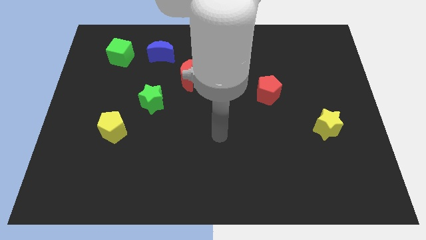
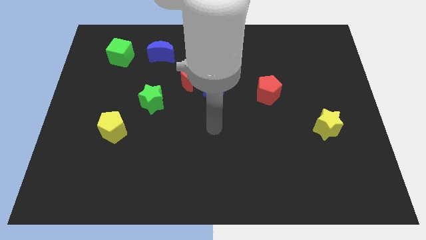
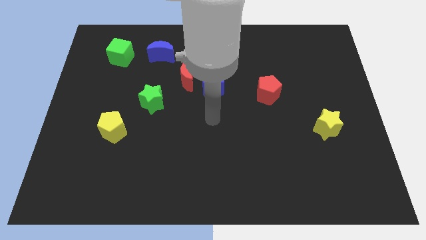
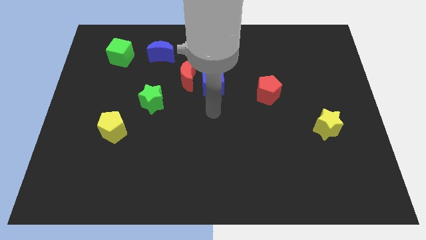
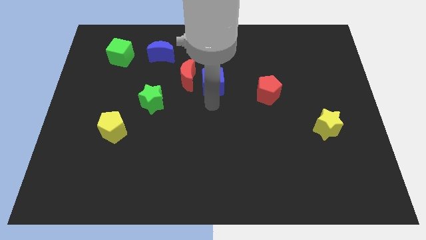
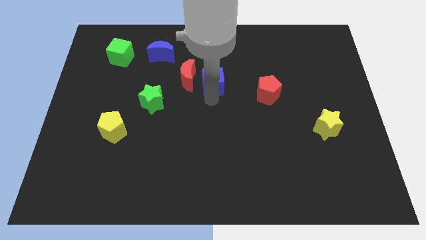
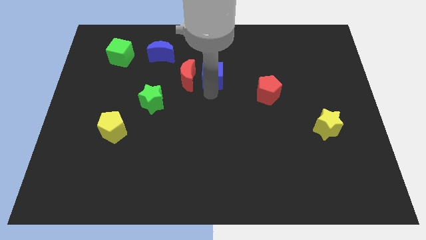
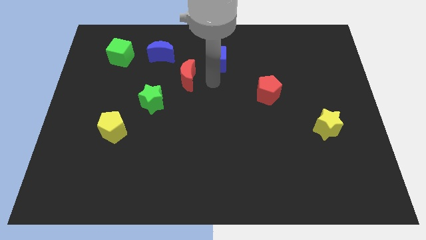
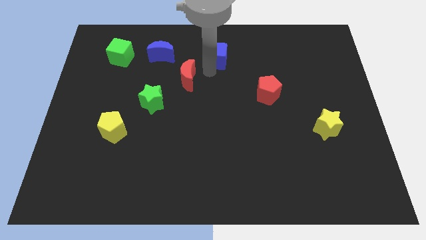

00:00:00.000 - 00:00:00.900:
move the red moon away from the blue cube

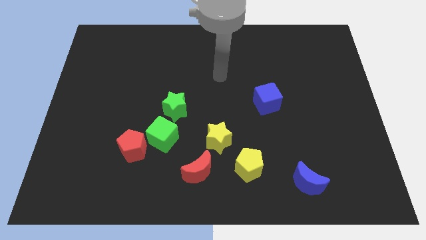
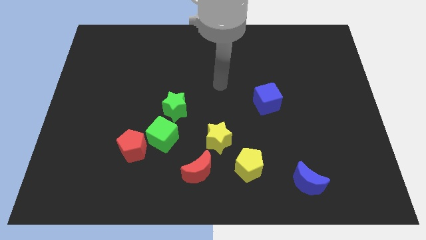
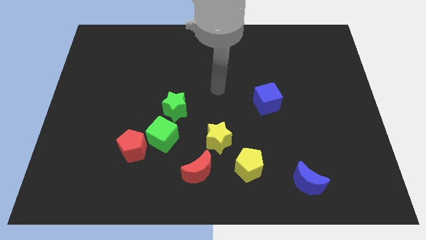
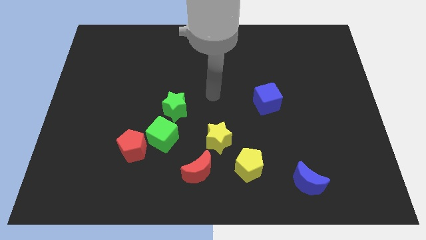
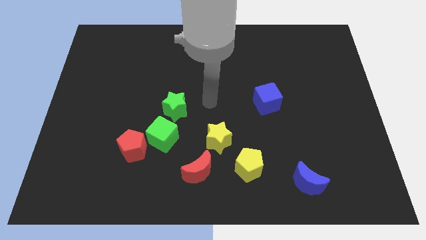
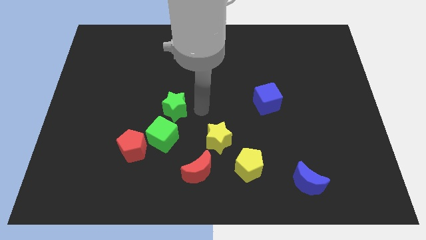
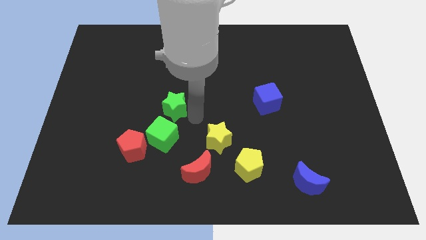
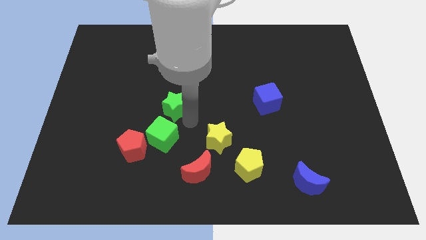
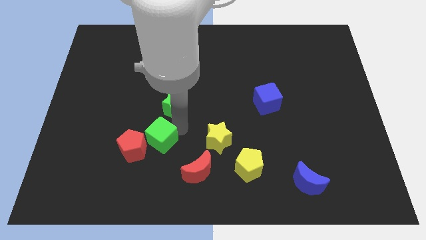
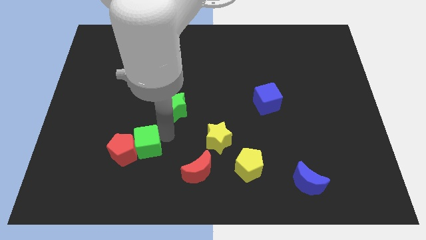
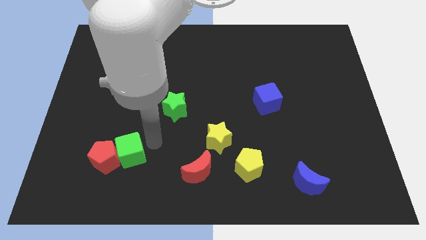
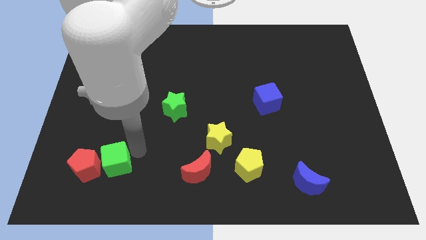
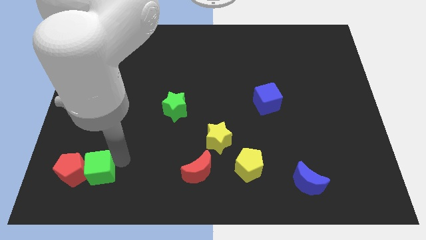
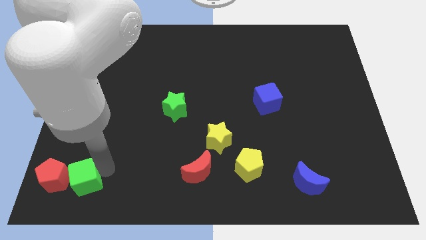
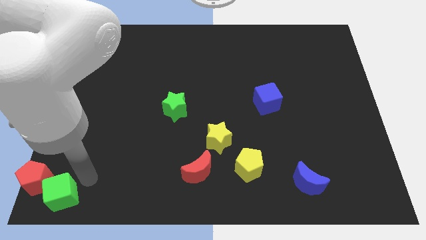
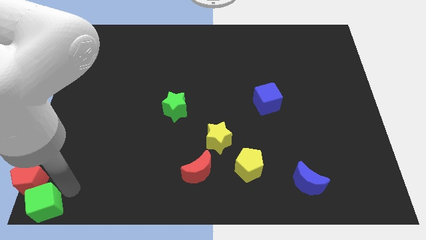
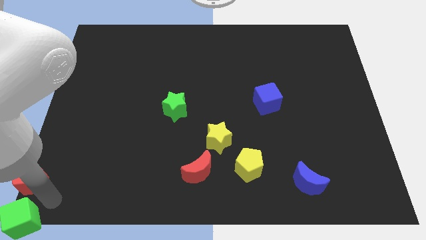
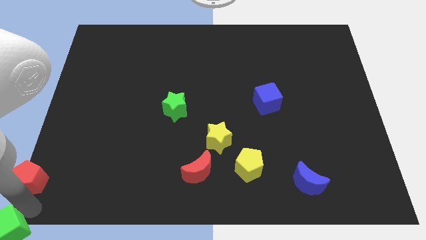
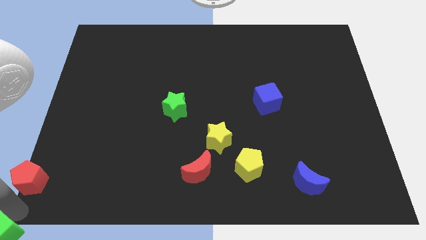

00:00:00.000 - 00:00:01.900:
separate the red pentagon from the green cube

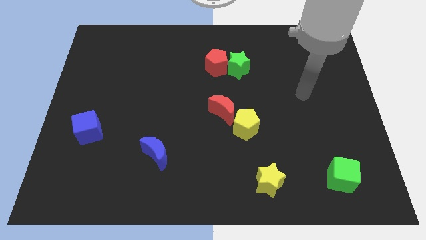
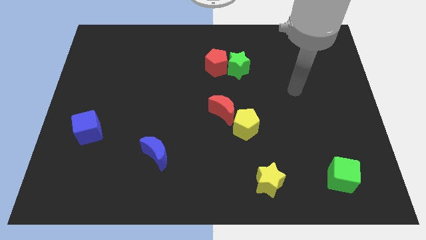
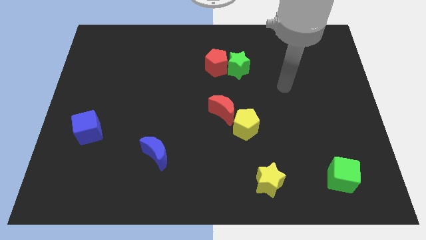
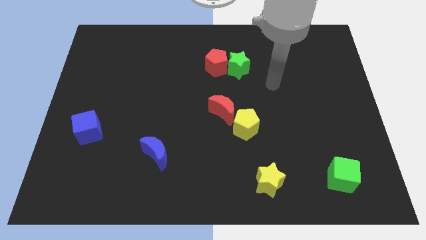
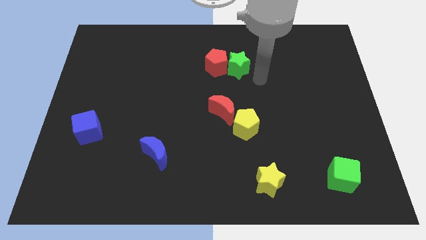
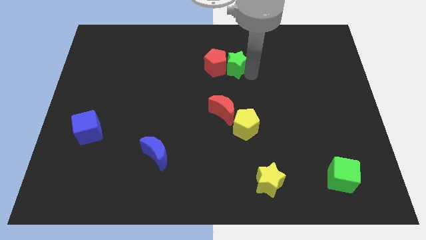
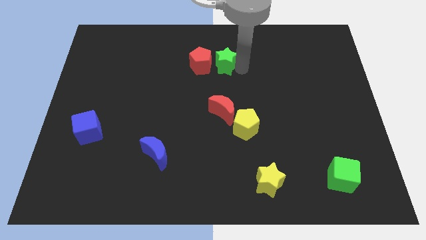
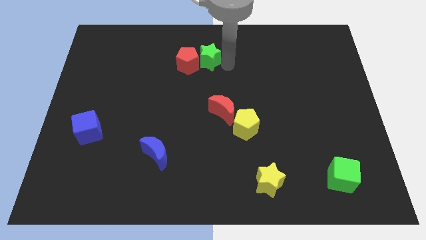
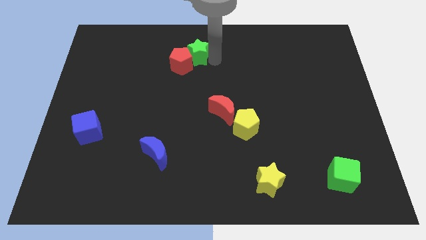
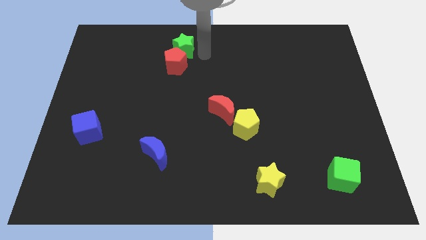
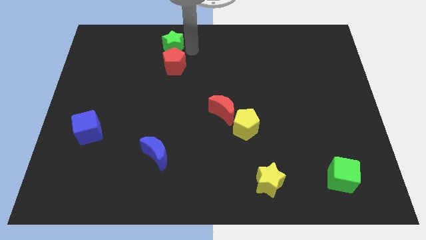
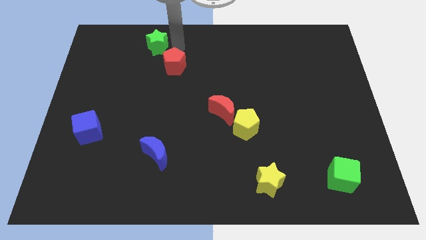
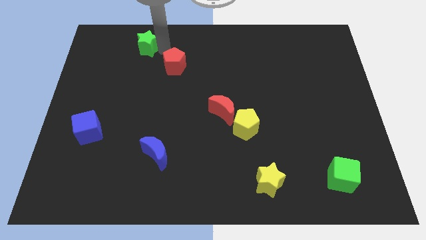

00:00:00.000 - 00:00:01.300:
separate the red pentagon from the green star

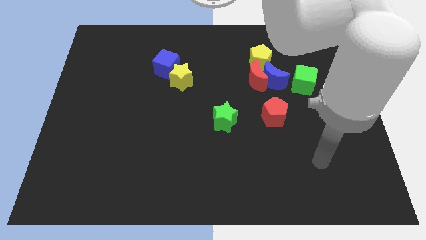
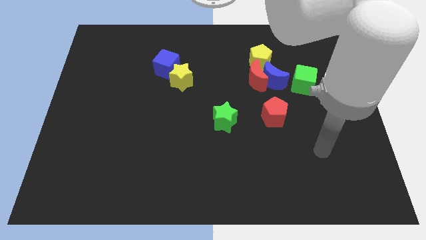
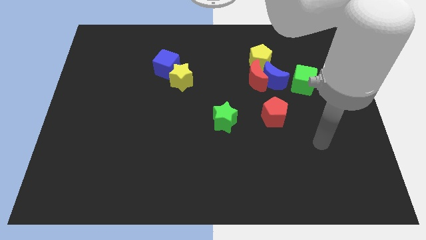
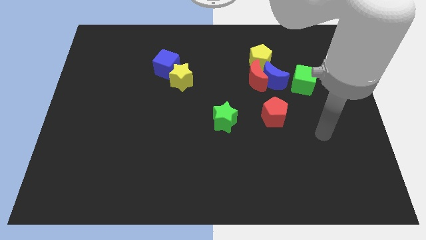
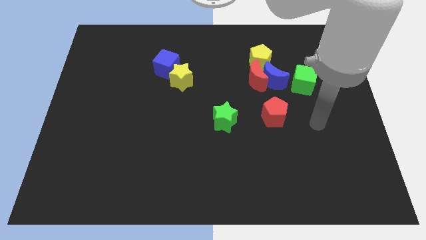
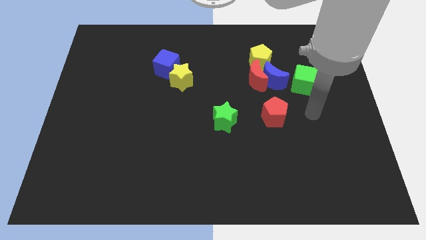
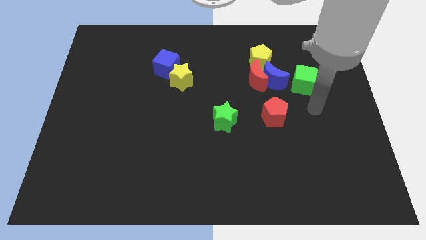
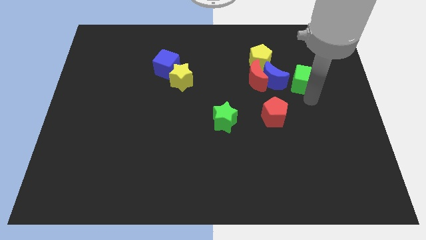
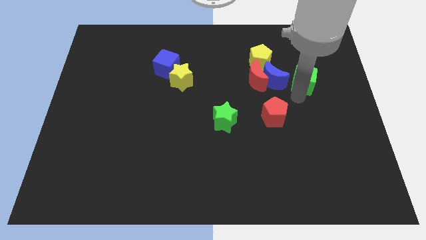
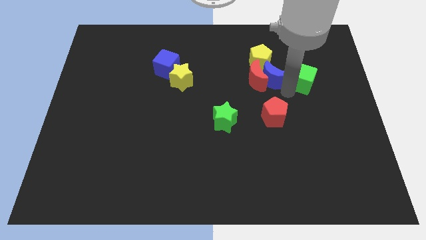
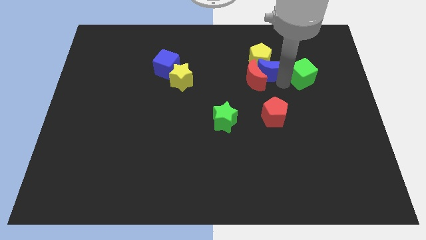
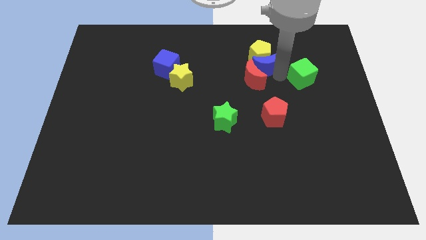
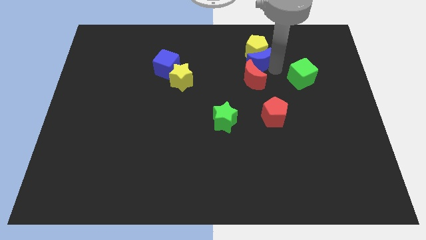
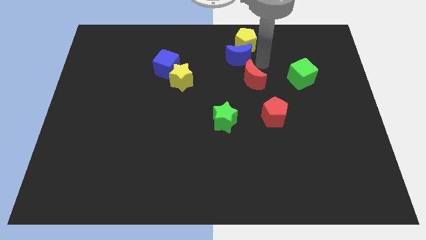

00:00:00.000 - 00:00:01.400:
separate the red moon from the blue moon and yellow pentagon

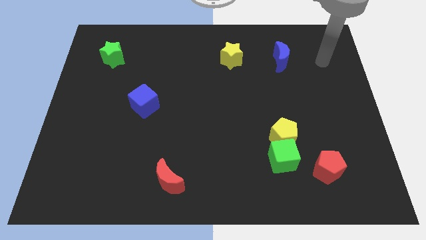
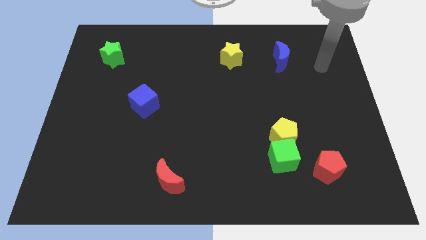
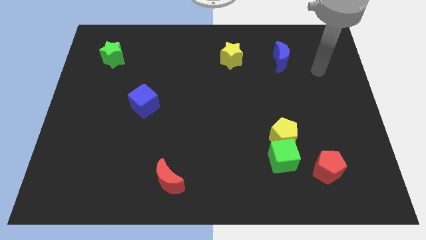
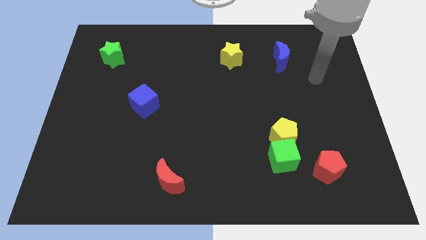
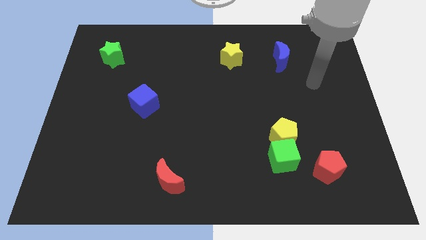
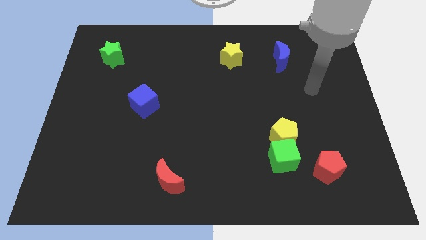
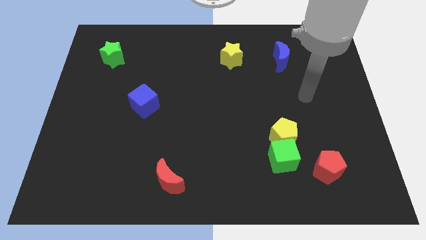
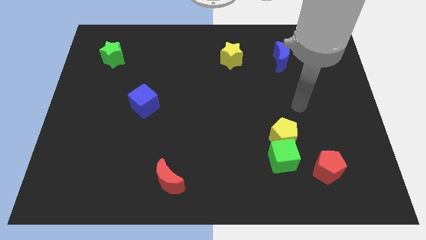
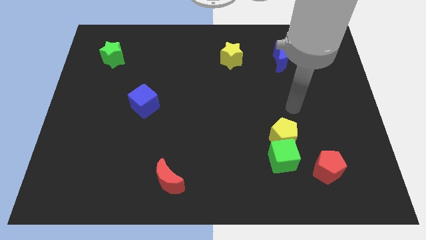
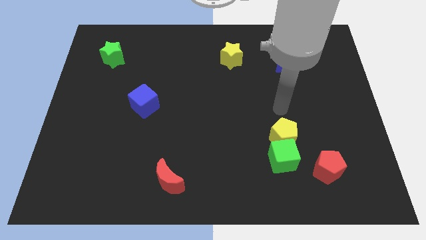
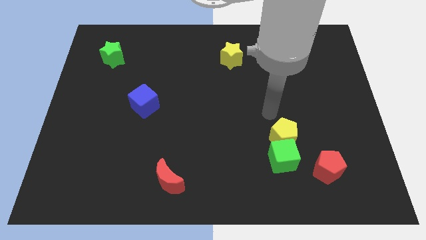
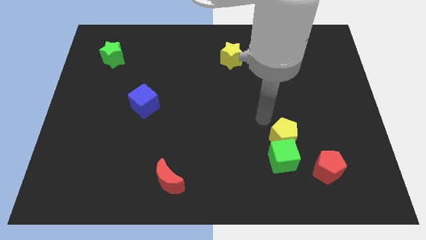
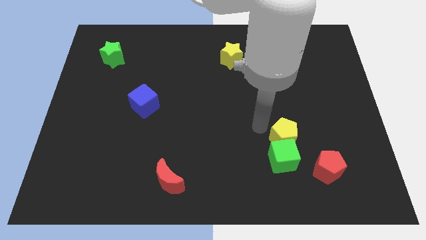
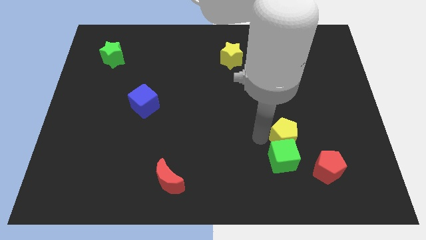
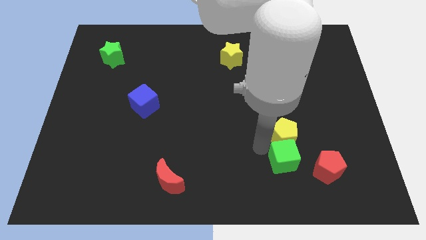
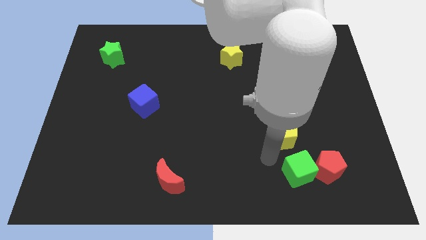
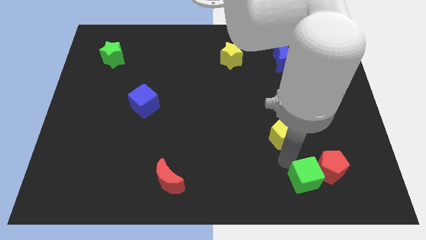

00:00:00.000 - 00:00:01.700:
move the yellow pentagon away from the green cube

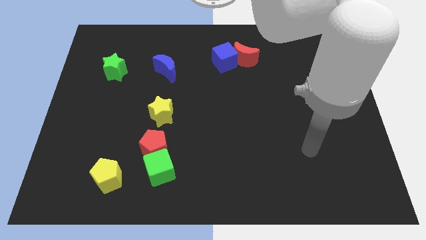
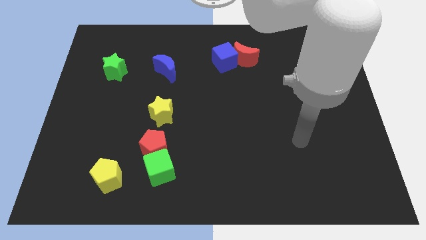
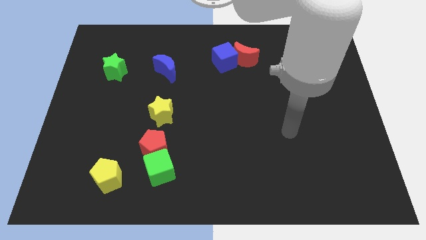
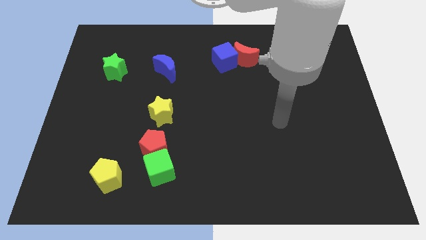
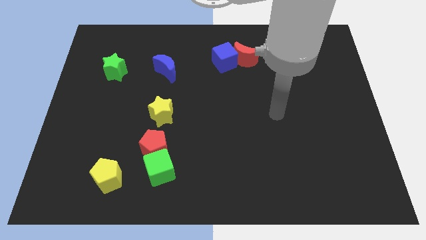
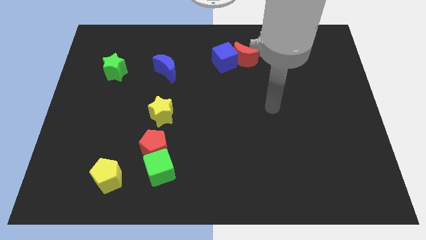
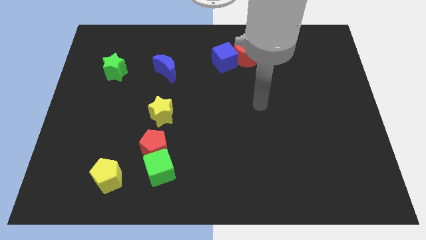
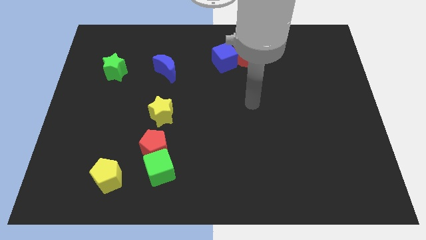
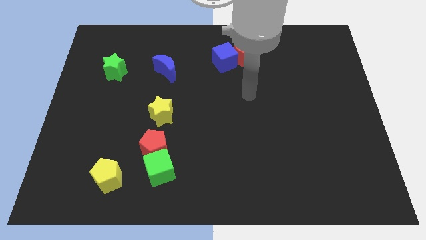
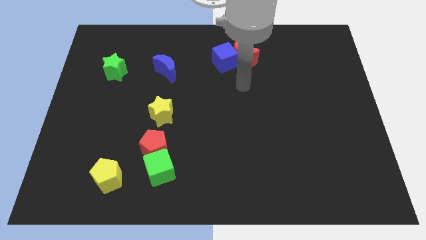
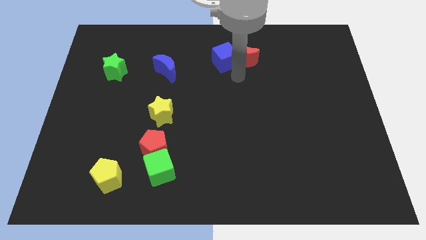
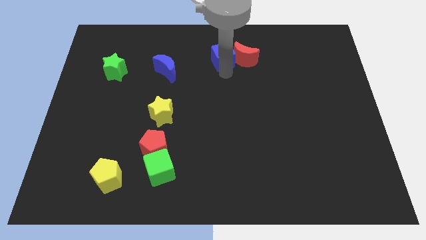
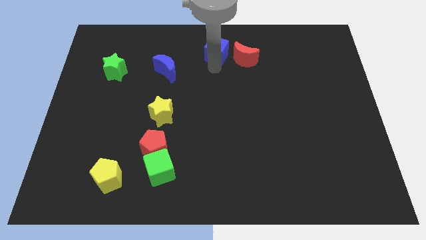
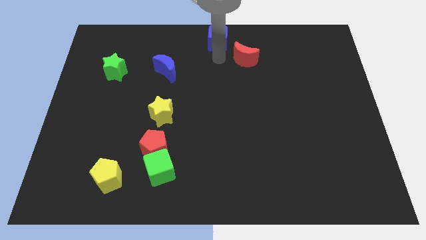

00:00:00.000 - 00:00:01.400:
separate the red moon from the blue cube

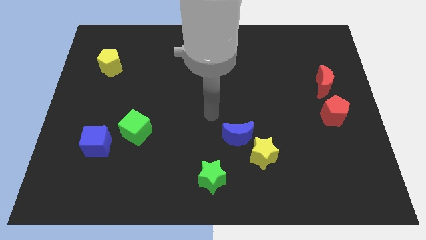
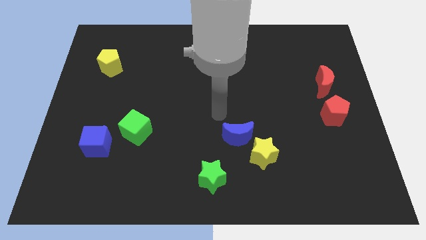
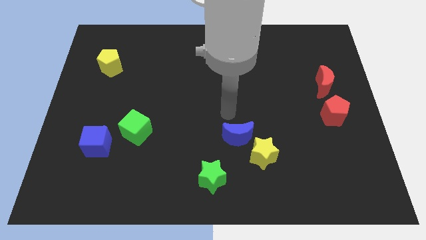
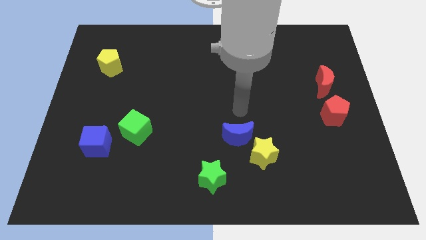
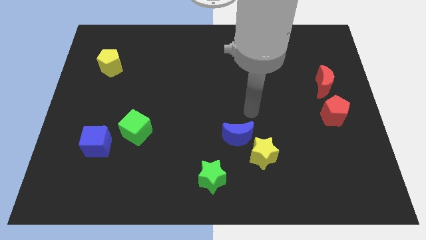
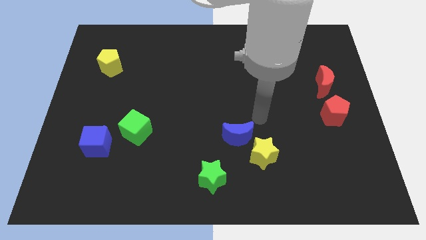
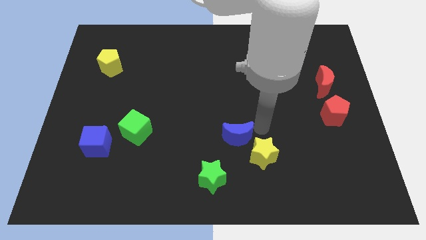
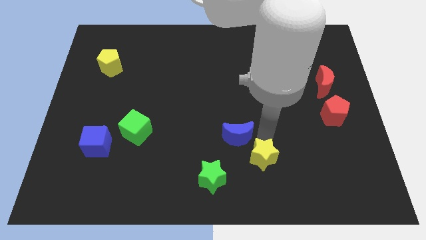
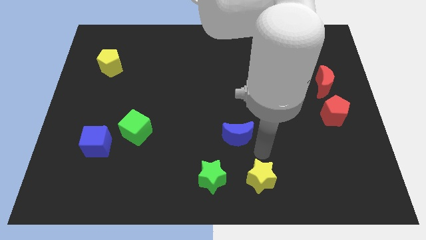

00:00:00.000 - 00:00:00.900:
separate the blue moon from the yellow star
